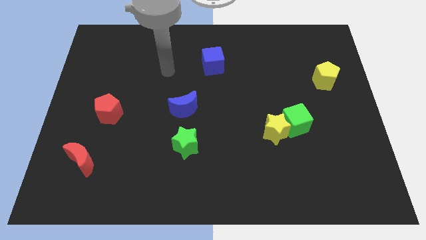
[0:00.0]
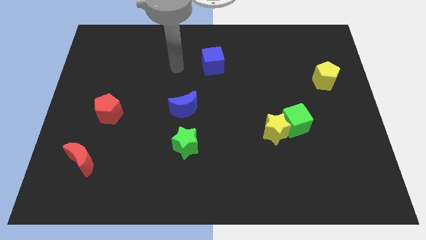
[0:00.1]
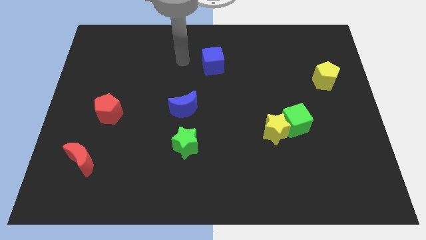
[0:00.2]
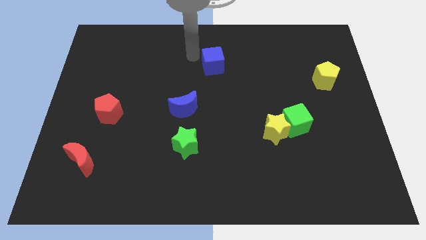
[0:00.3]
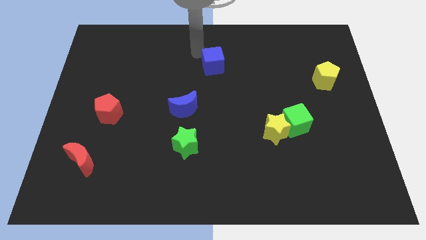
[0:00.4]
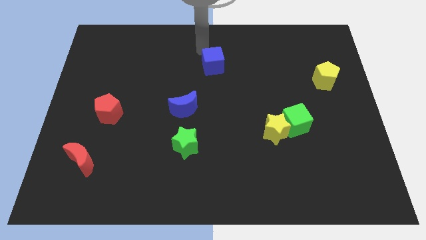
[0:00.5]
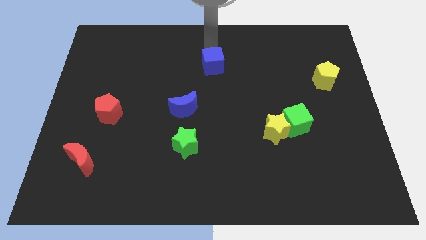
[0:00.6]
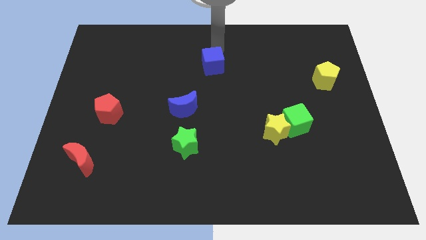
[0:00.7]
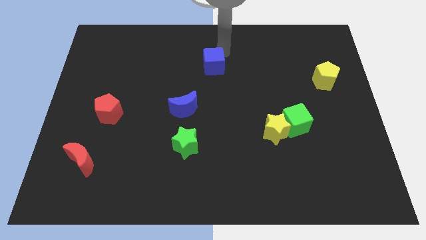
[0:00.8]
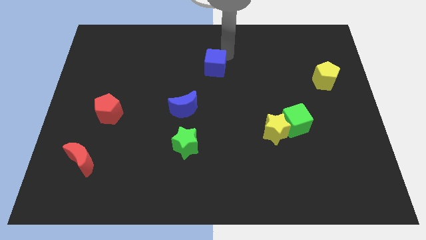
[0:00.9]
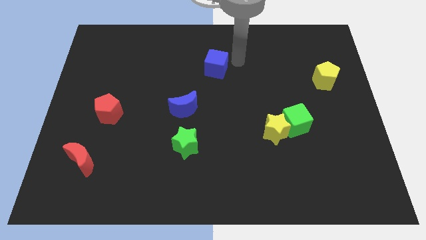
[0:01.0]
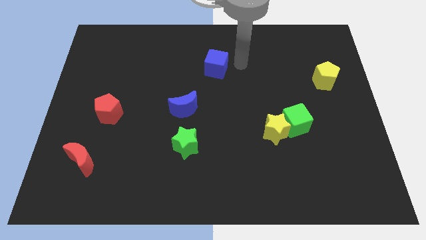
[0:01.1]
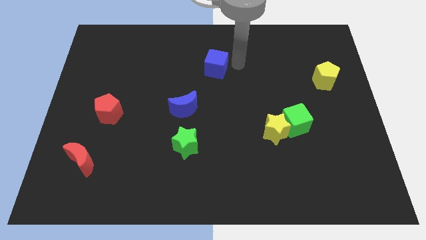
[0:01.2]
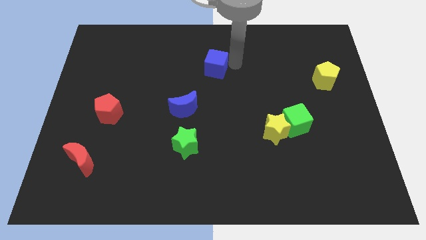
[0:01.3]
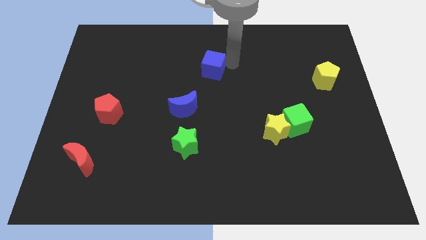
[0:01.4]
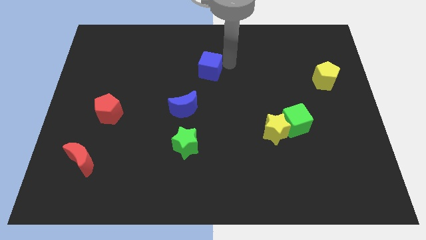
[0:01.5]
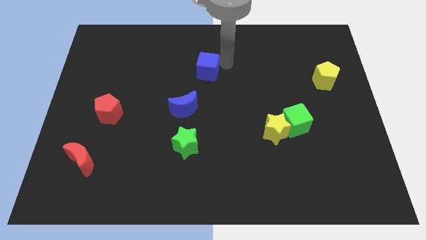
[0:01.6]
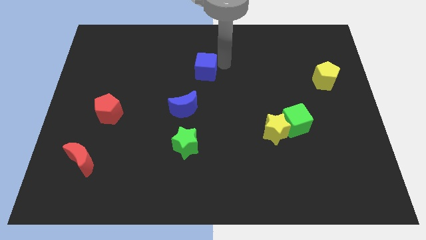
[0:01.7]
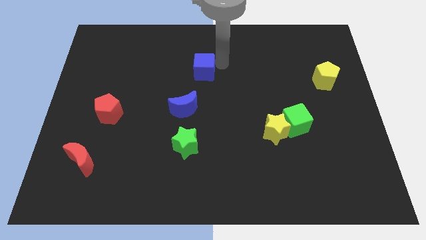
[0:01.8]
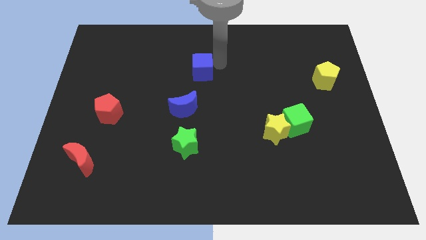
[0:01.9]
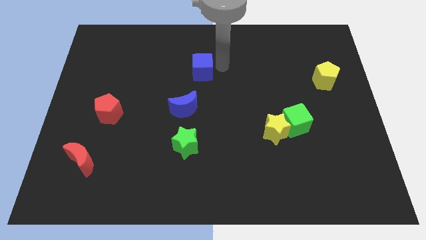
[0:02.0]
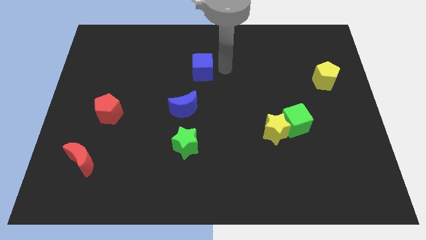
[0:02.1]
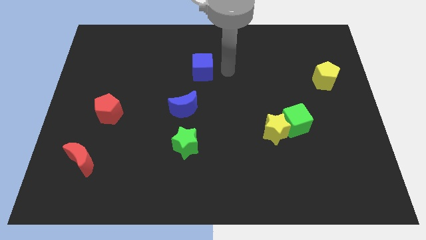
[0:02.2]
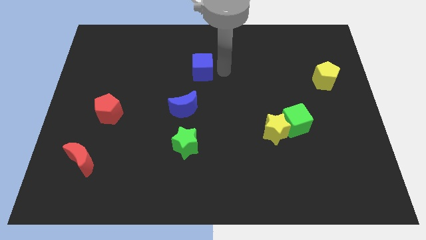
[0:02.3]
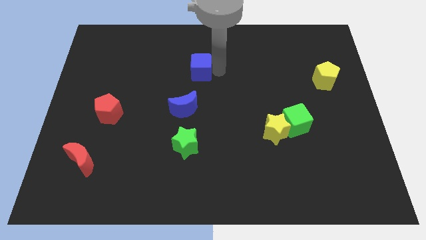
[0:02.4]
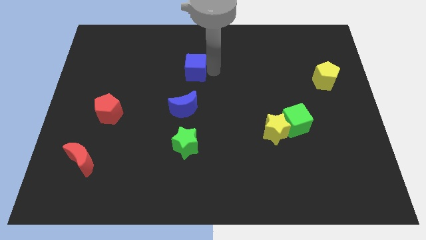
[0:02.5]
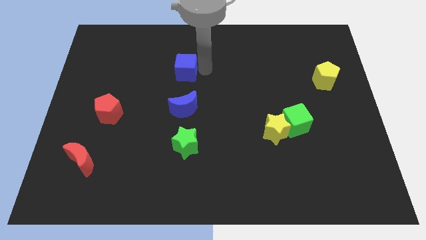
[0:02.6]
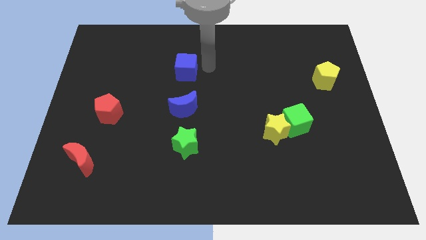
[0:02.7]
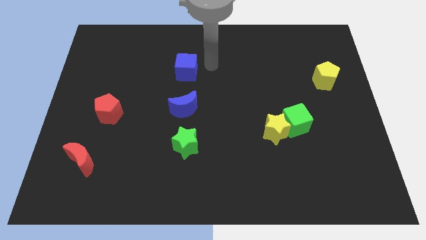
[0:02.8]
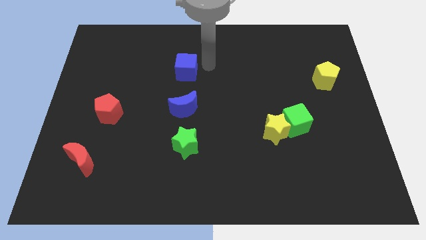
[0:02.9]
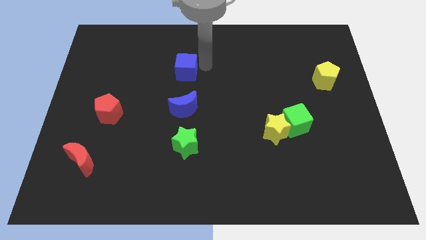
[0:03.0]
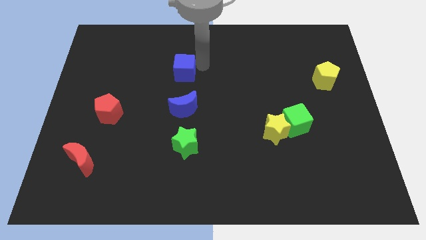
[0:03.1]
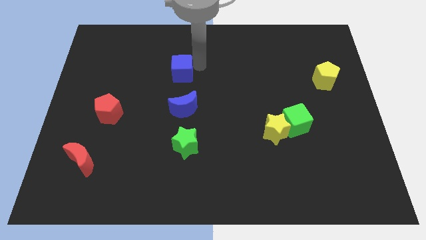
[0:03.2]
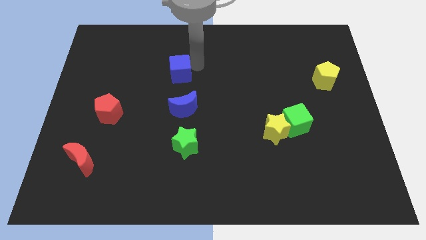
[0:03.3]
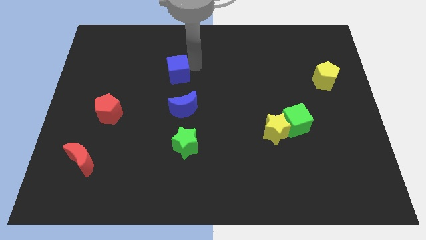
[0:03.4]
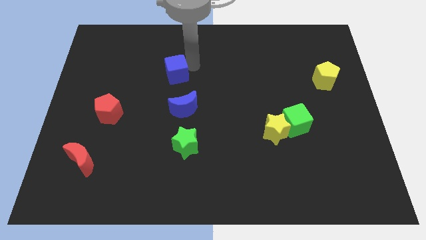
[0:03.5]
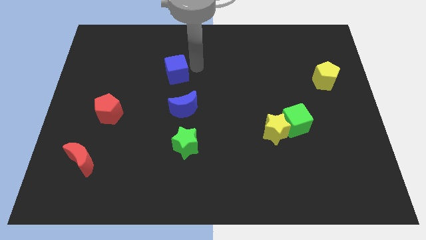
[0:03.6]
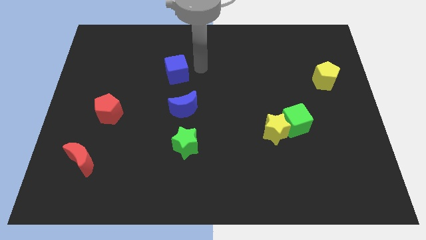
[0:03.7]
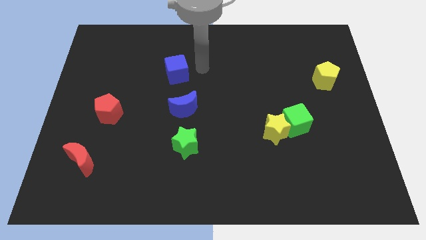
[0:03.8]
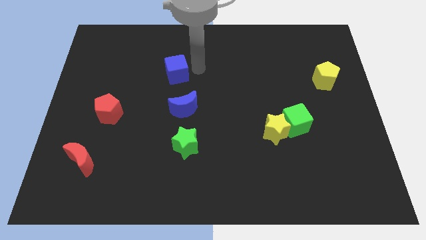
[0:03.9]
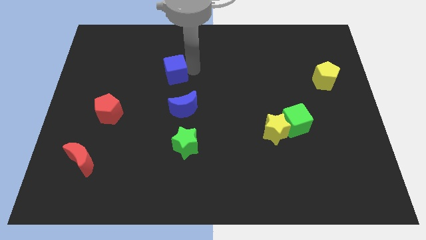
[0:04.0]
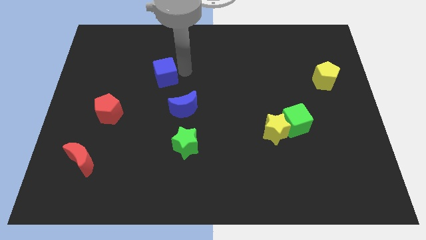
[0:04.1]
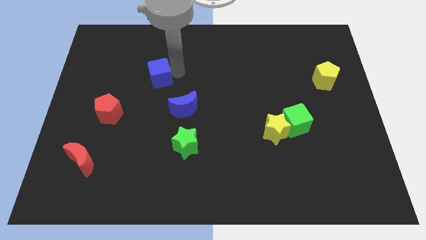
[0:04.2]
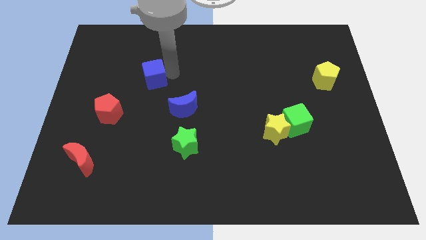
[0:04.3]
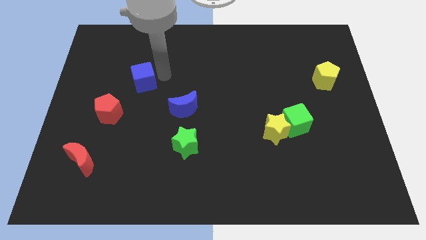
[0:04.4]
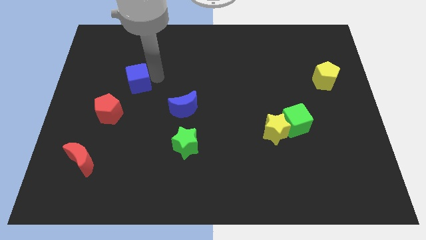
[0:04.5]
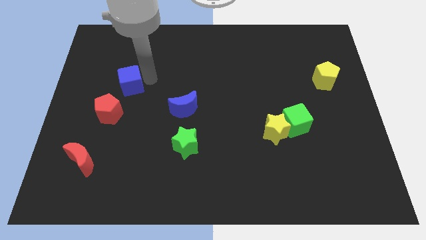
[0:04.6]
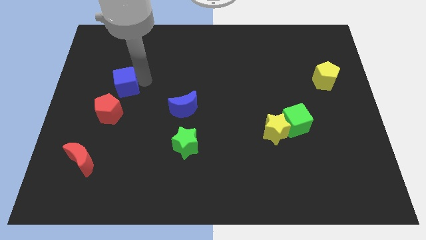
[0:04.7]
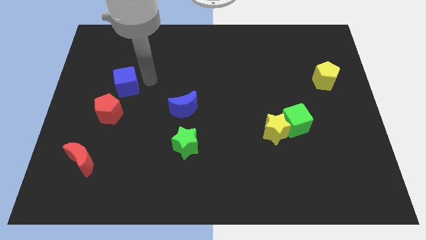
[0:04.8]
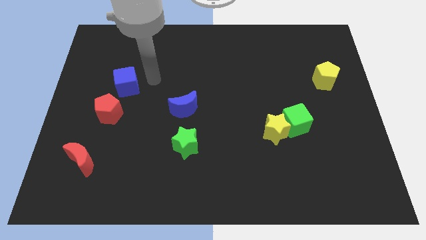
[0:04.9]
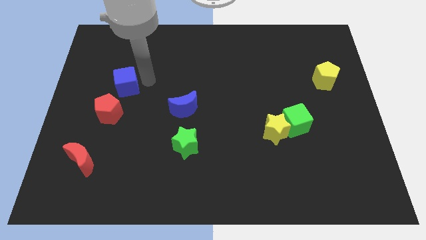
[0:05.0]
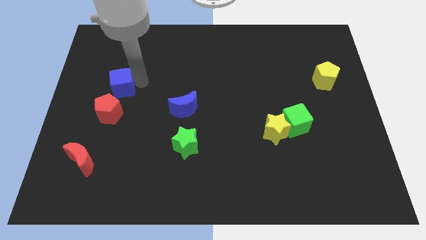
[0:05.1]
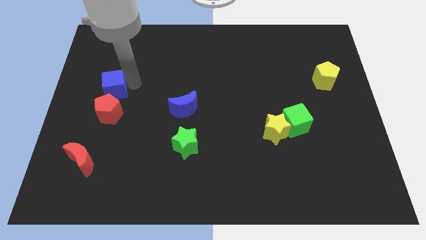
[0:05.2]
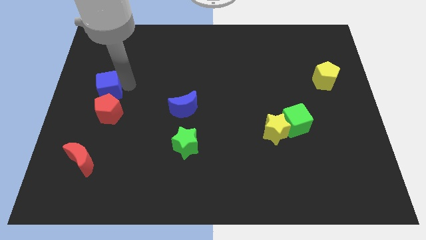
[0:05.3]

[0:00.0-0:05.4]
slide the blue cube to the left side

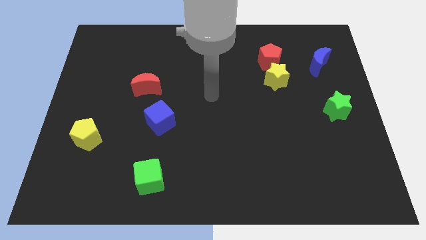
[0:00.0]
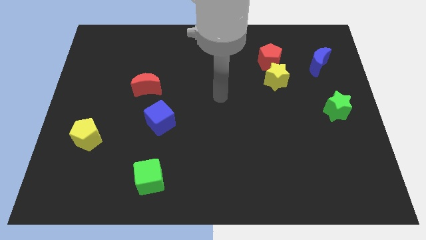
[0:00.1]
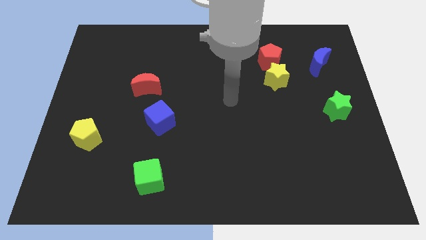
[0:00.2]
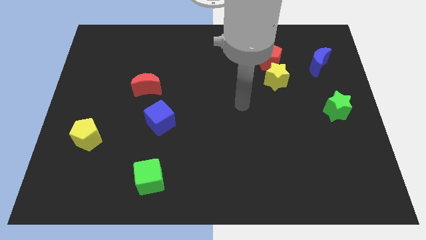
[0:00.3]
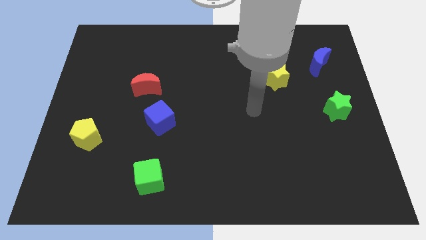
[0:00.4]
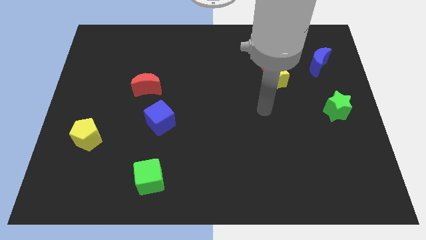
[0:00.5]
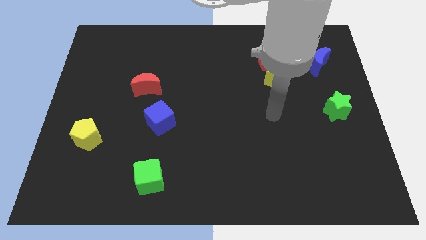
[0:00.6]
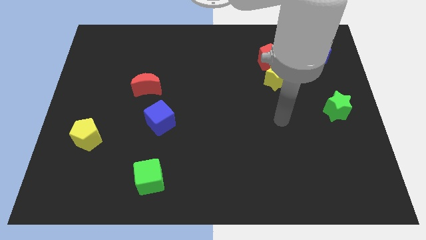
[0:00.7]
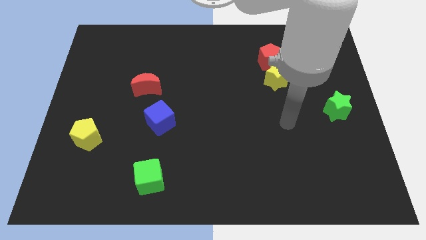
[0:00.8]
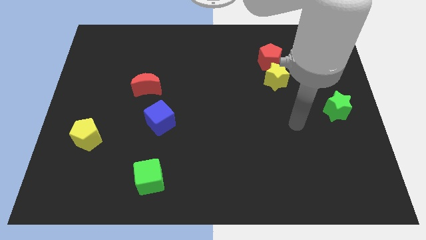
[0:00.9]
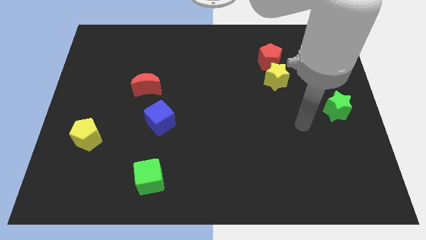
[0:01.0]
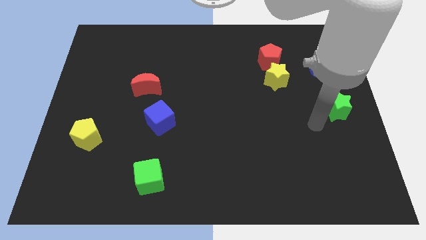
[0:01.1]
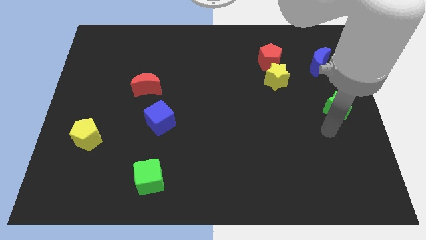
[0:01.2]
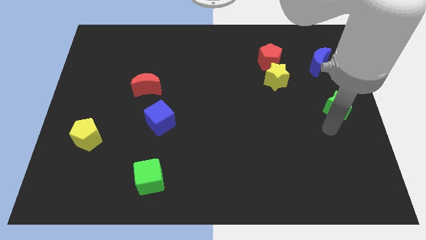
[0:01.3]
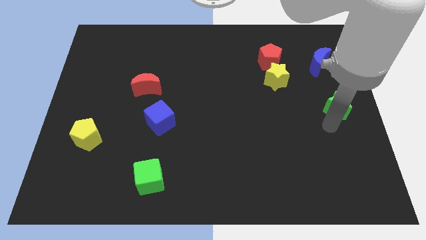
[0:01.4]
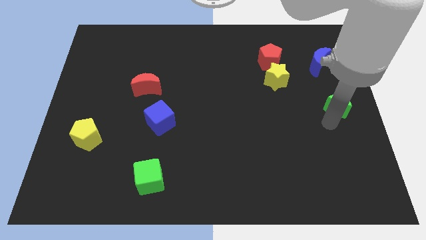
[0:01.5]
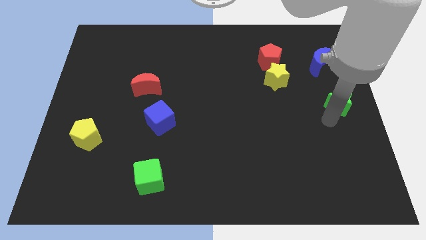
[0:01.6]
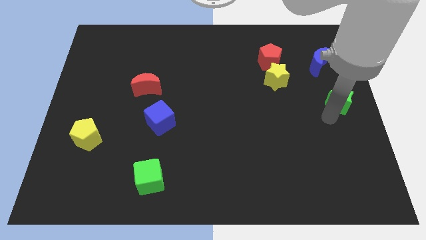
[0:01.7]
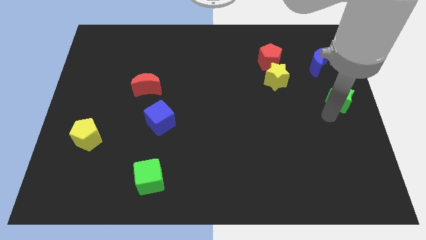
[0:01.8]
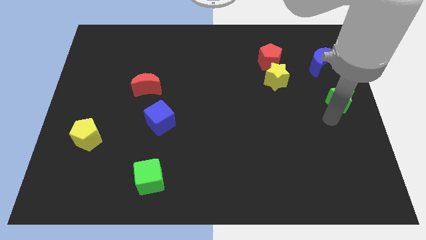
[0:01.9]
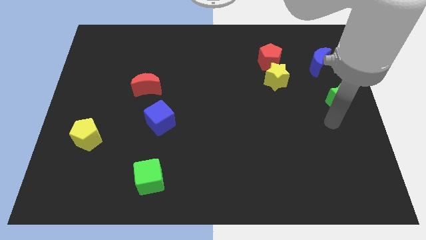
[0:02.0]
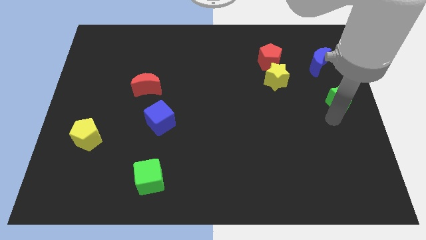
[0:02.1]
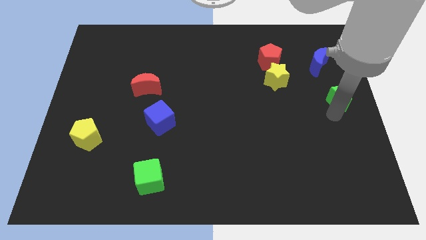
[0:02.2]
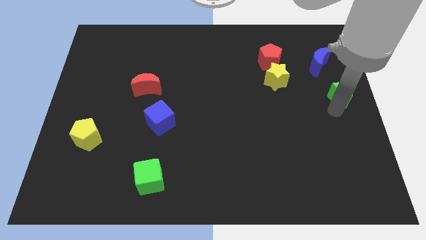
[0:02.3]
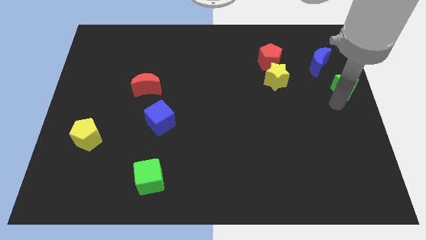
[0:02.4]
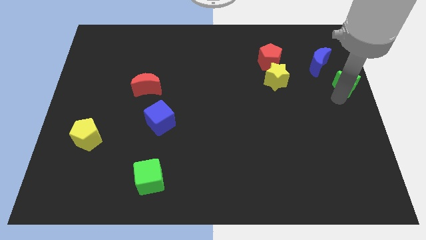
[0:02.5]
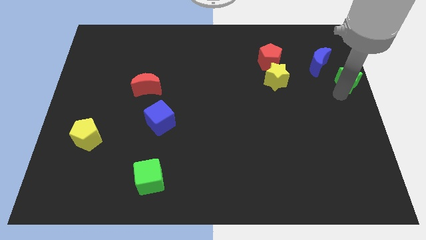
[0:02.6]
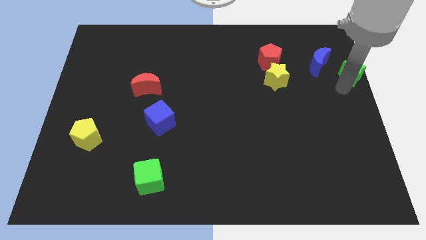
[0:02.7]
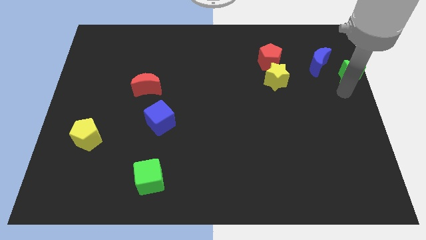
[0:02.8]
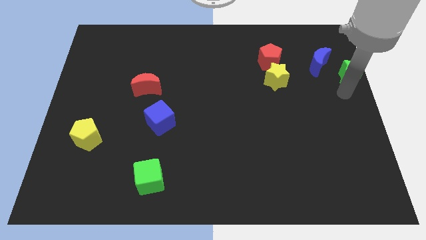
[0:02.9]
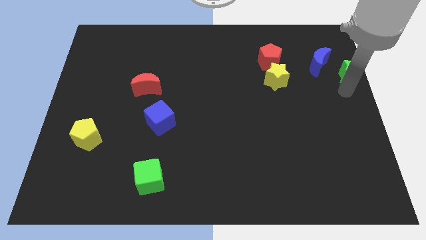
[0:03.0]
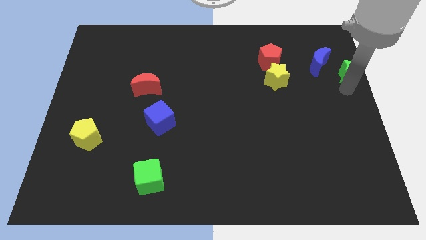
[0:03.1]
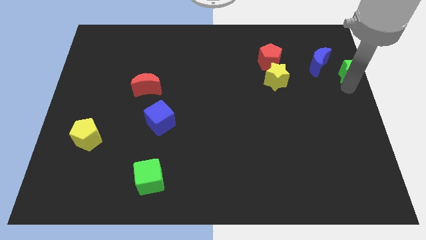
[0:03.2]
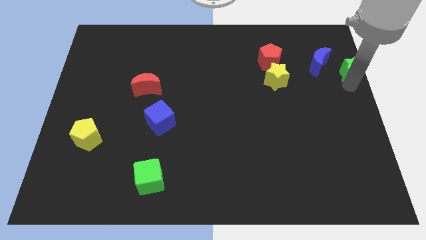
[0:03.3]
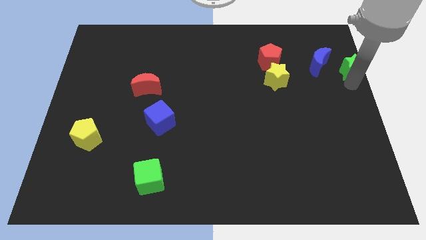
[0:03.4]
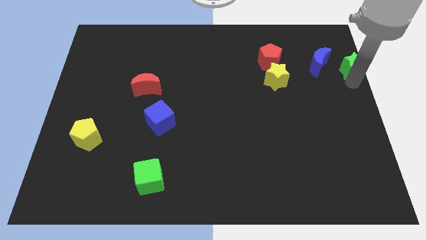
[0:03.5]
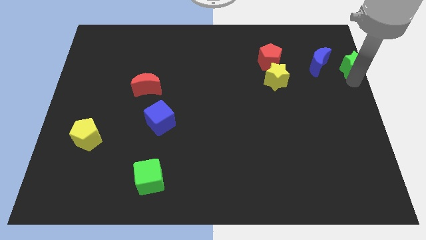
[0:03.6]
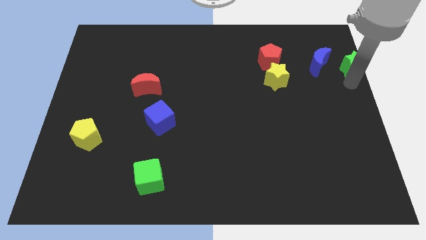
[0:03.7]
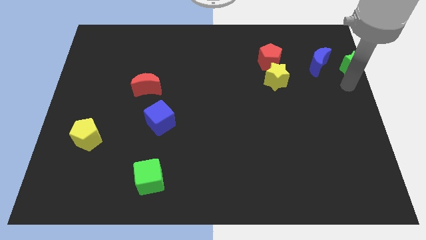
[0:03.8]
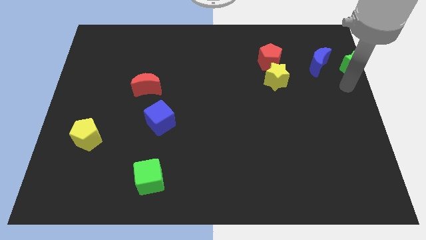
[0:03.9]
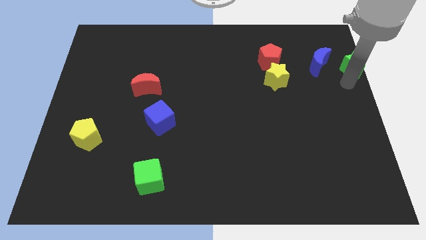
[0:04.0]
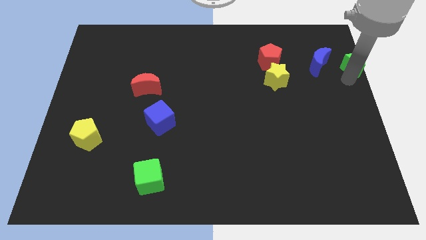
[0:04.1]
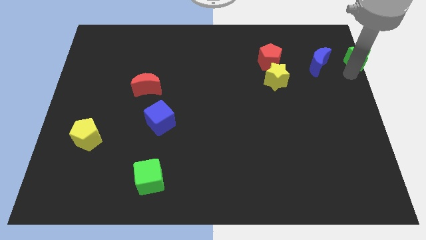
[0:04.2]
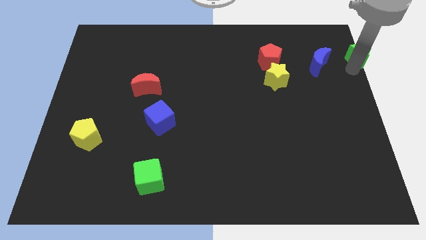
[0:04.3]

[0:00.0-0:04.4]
put the green star to the upper right corner
